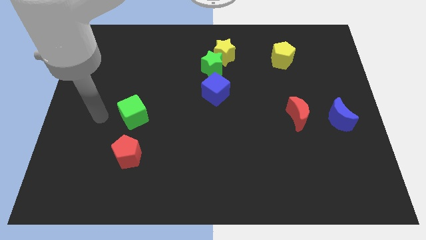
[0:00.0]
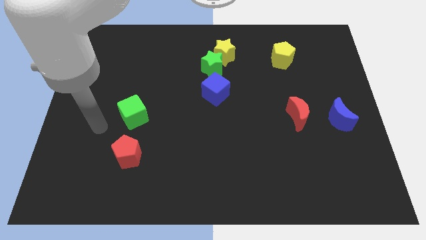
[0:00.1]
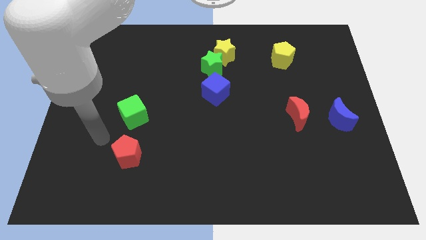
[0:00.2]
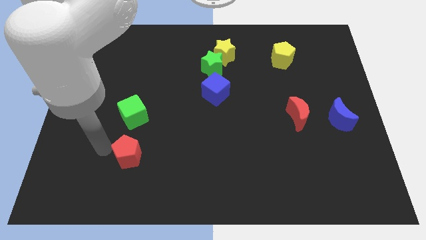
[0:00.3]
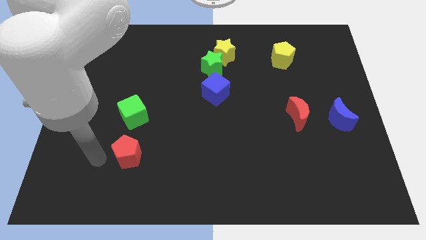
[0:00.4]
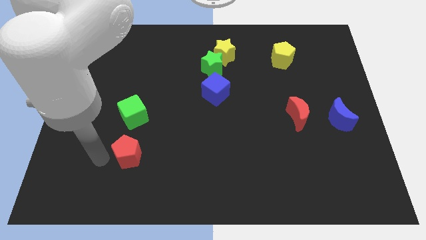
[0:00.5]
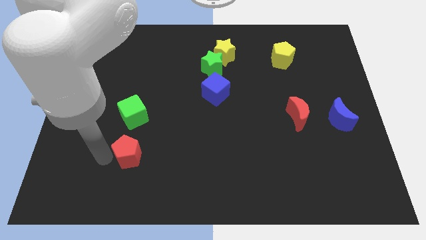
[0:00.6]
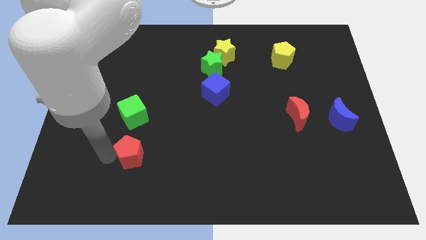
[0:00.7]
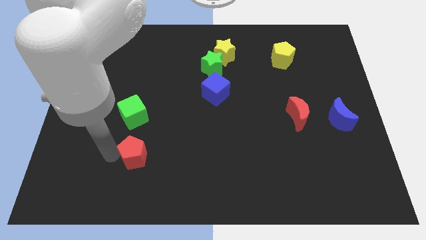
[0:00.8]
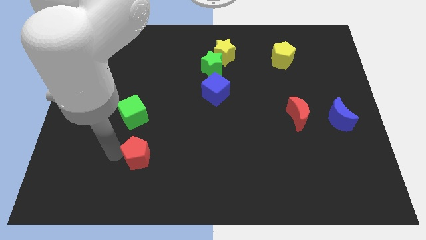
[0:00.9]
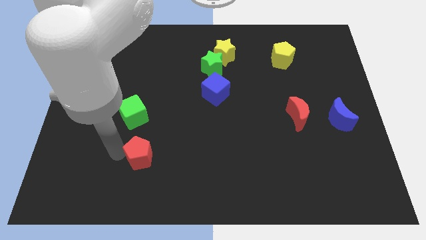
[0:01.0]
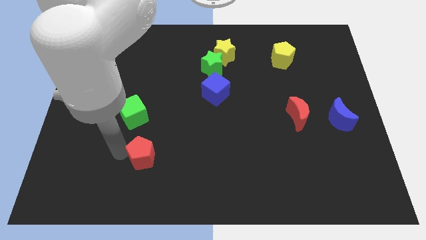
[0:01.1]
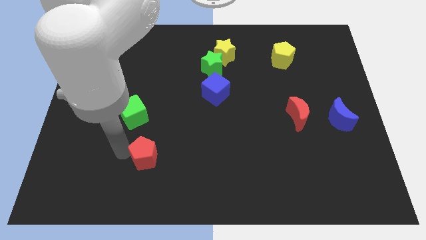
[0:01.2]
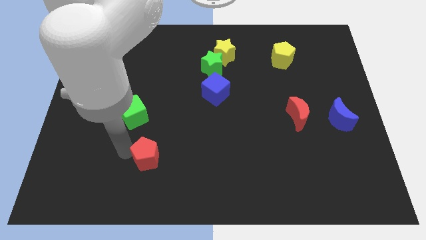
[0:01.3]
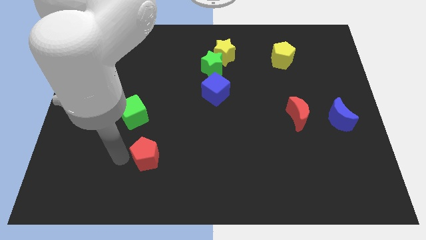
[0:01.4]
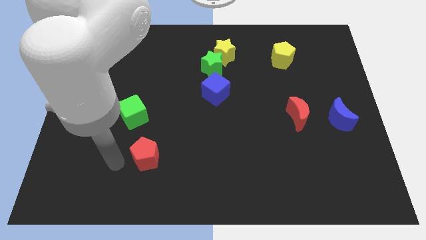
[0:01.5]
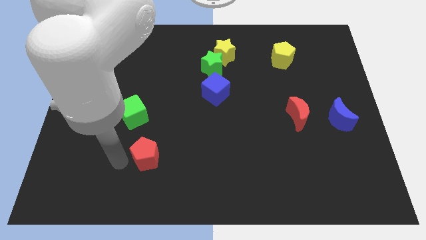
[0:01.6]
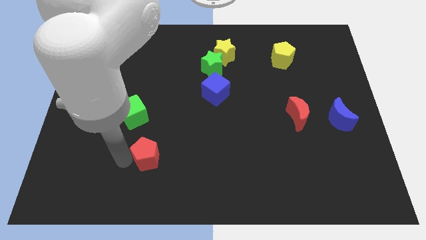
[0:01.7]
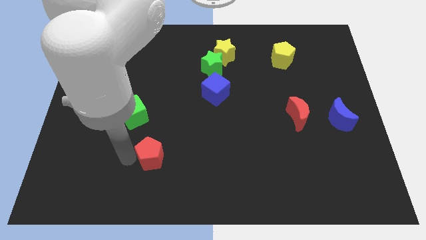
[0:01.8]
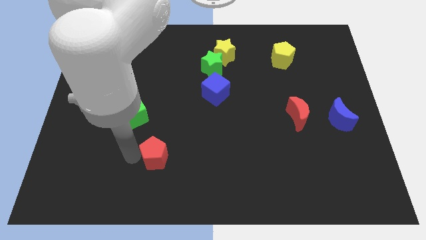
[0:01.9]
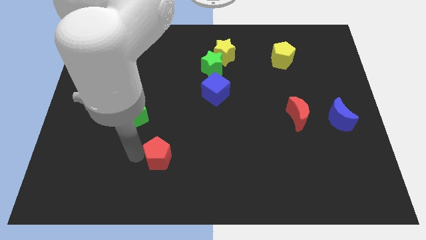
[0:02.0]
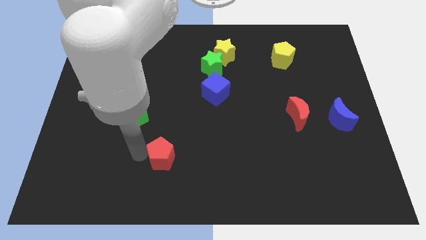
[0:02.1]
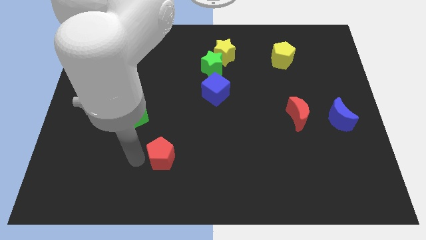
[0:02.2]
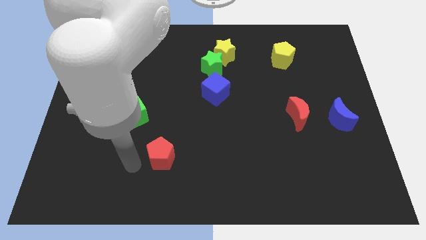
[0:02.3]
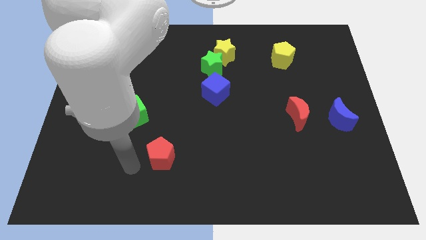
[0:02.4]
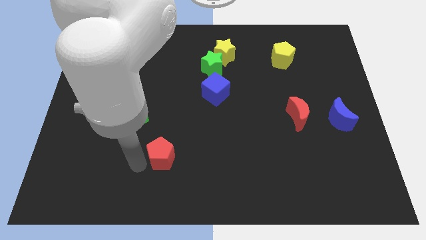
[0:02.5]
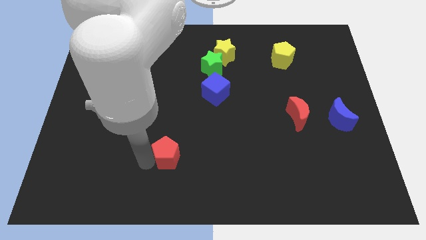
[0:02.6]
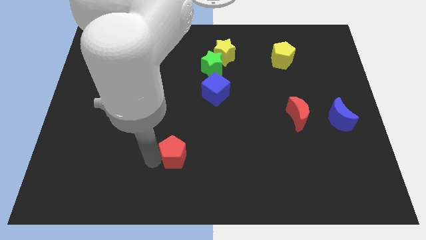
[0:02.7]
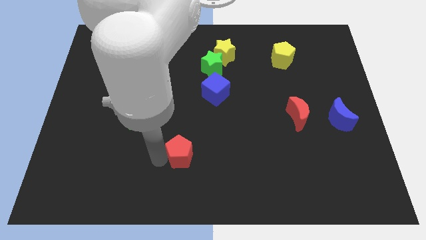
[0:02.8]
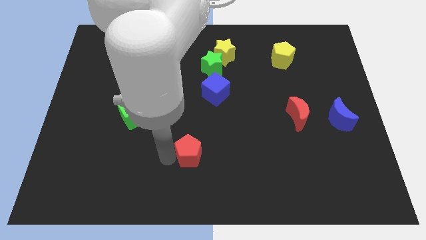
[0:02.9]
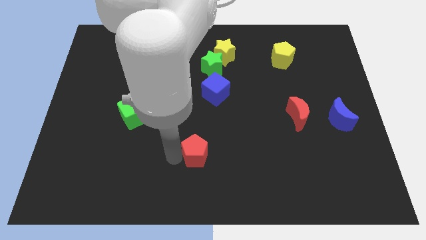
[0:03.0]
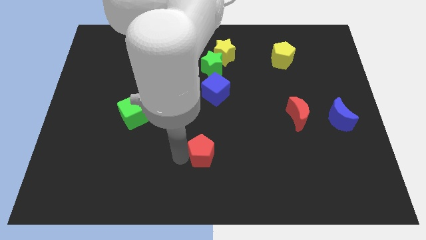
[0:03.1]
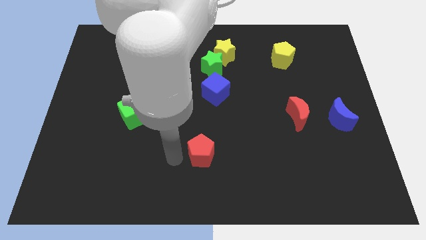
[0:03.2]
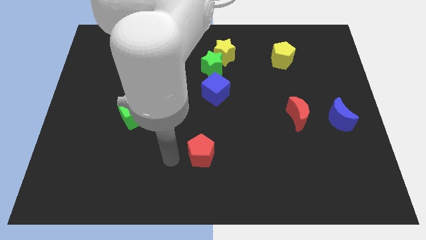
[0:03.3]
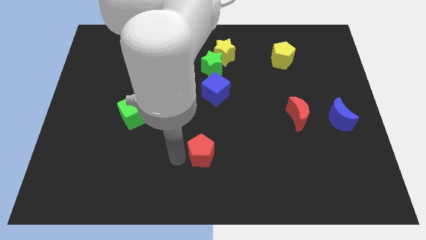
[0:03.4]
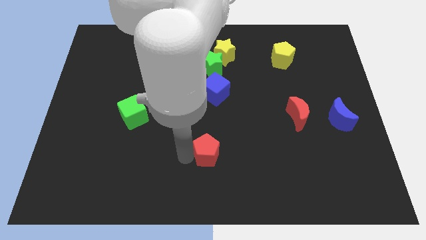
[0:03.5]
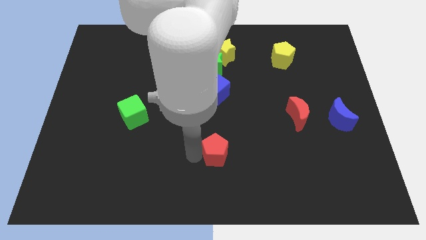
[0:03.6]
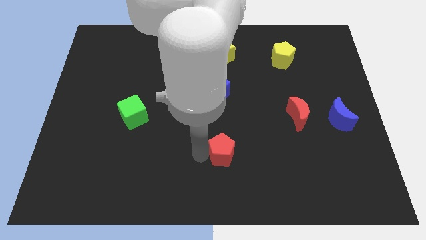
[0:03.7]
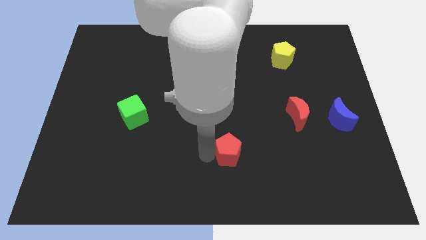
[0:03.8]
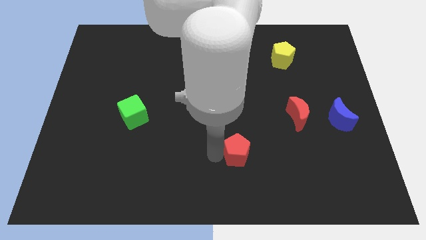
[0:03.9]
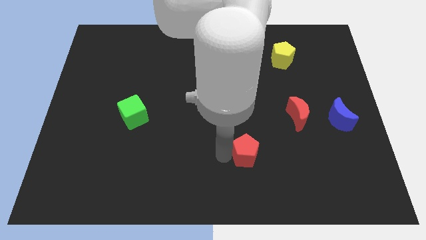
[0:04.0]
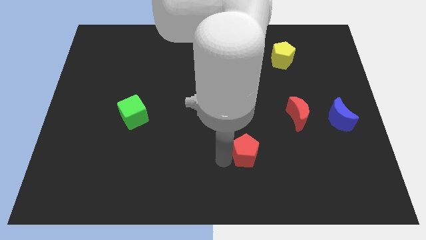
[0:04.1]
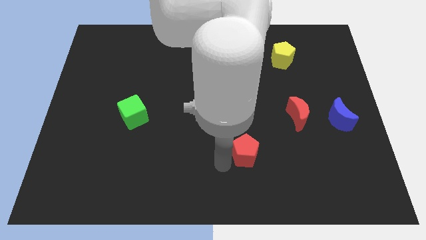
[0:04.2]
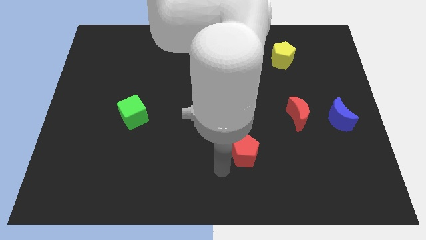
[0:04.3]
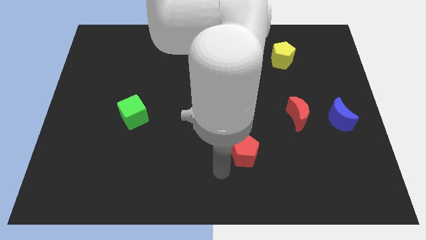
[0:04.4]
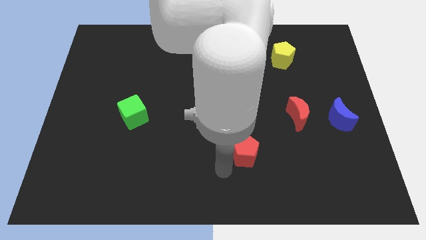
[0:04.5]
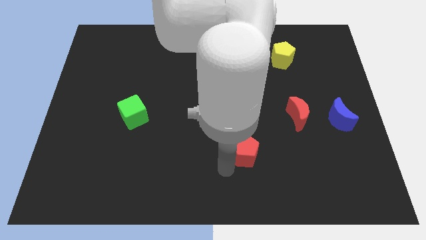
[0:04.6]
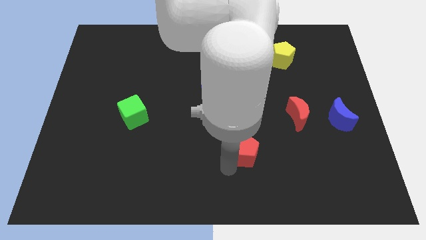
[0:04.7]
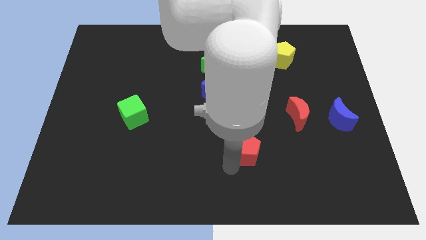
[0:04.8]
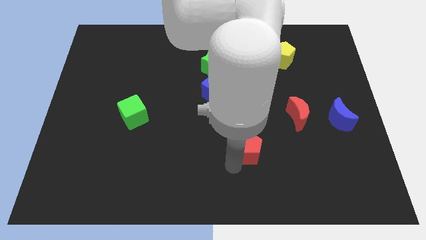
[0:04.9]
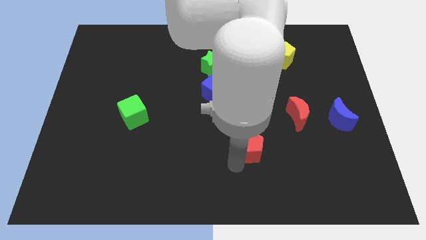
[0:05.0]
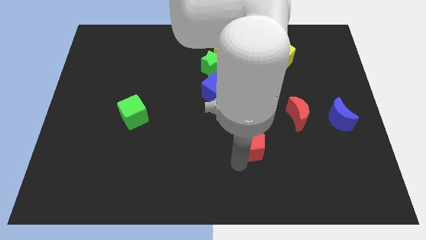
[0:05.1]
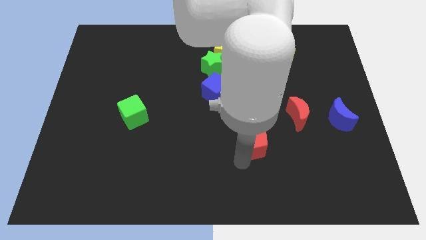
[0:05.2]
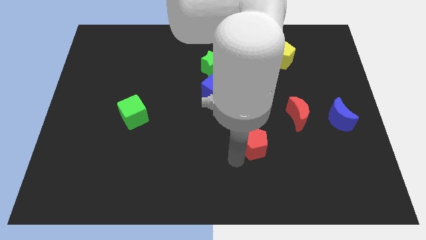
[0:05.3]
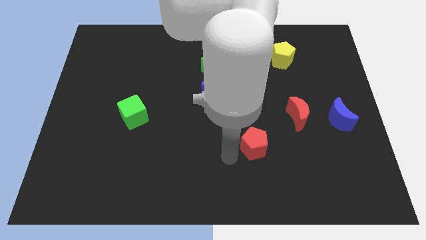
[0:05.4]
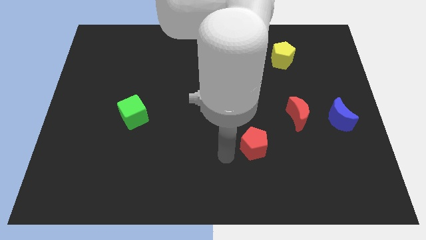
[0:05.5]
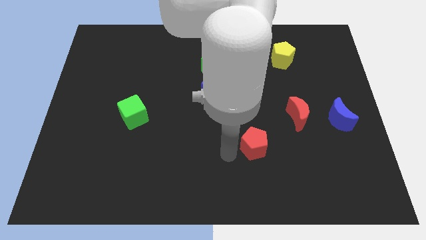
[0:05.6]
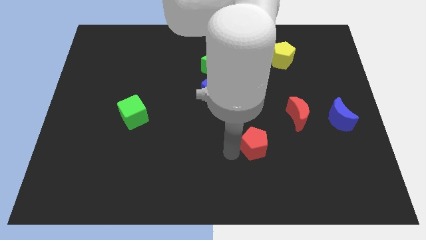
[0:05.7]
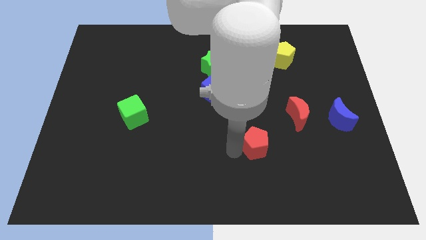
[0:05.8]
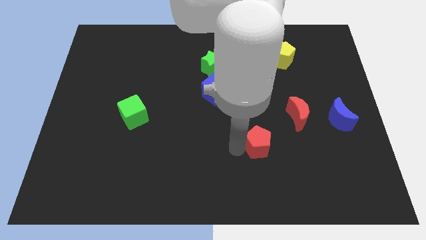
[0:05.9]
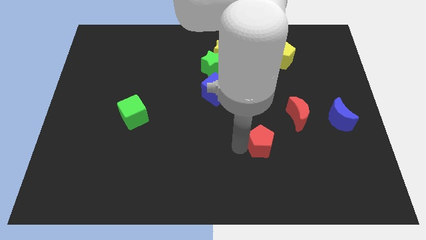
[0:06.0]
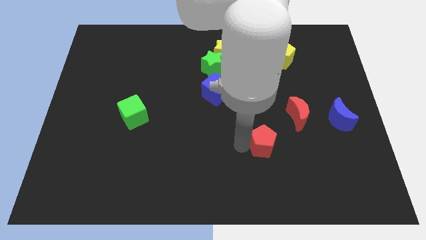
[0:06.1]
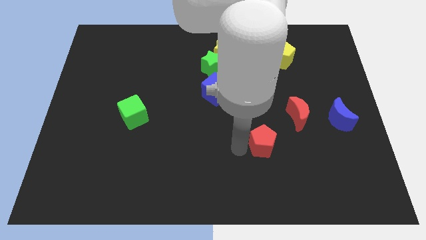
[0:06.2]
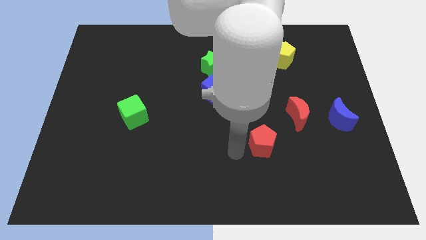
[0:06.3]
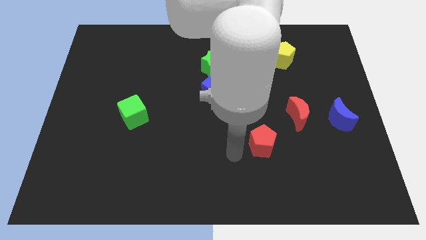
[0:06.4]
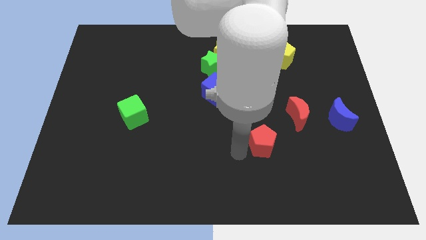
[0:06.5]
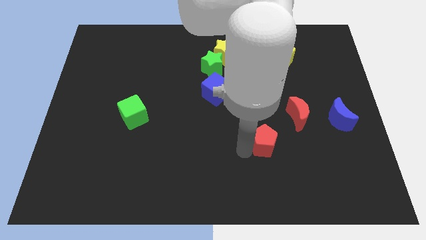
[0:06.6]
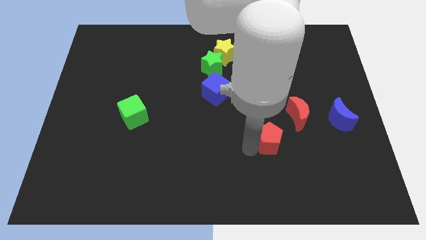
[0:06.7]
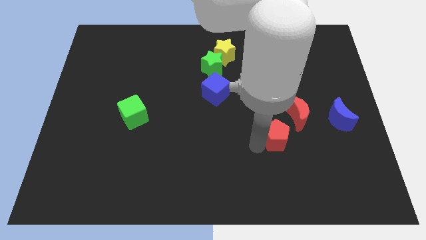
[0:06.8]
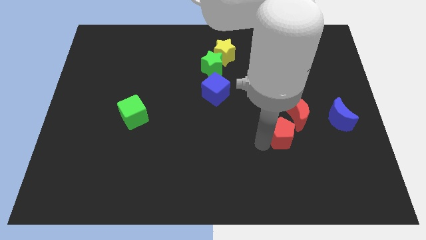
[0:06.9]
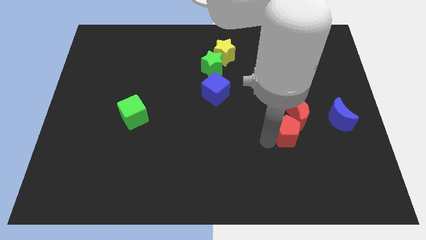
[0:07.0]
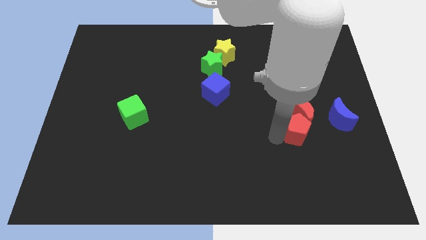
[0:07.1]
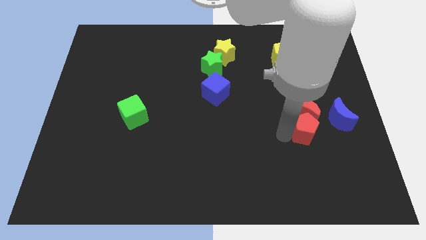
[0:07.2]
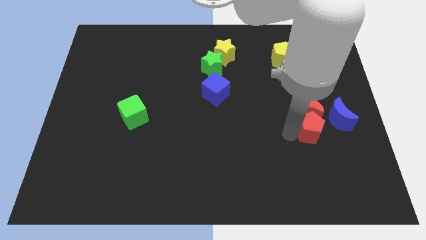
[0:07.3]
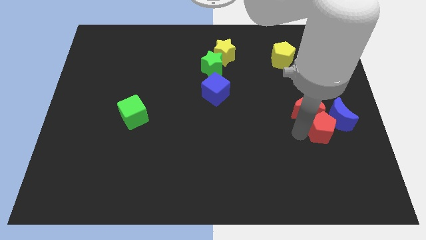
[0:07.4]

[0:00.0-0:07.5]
push the red pentagon next to the blue moon
